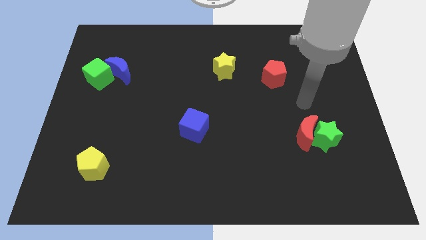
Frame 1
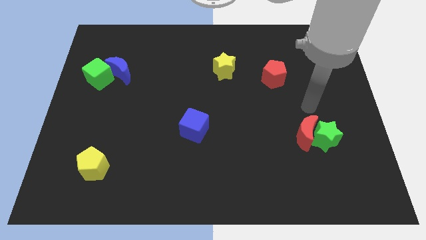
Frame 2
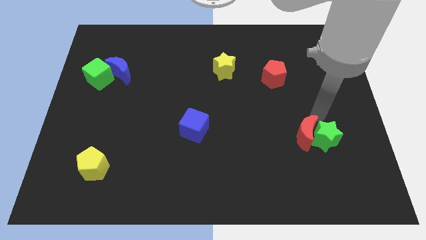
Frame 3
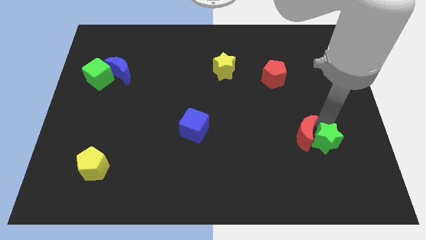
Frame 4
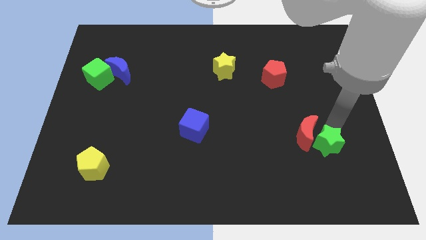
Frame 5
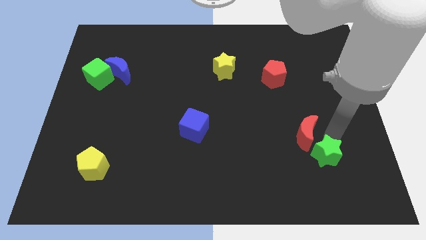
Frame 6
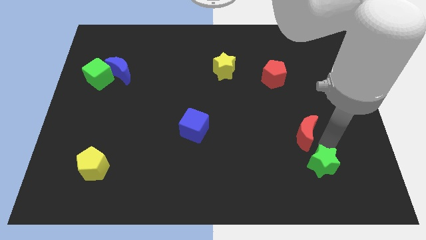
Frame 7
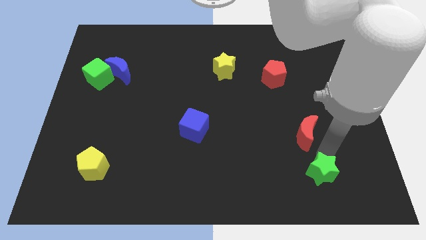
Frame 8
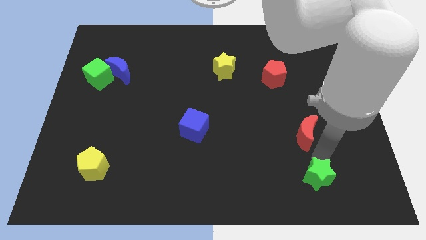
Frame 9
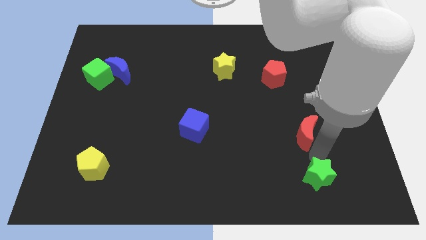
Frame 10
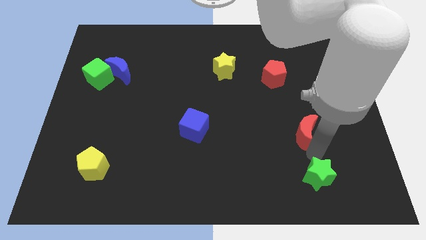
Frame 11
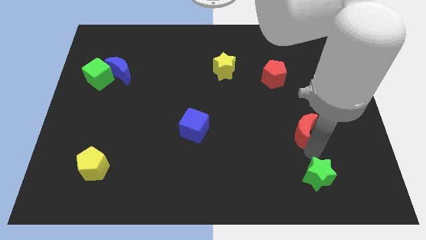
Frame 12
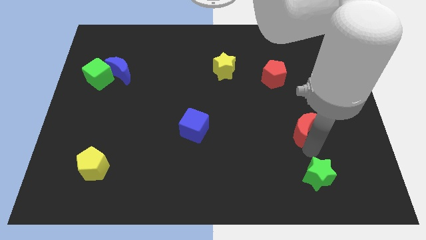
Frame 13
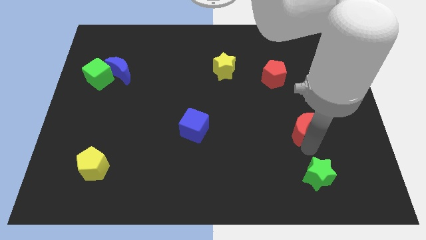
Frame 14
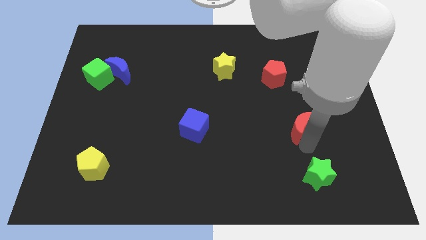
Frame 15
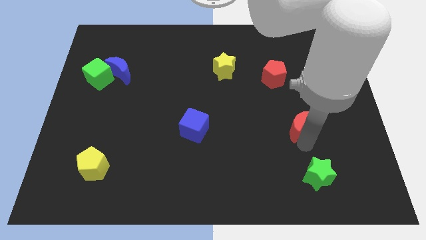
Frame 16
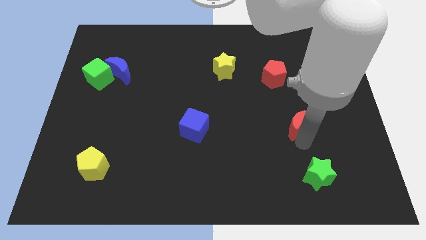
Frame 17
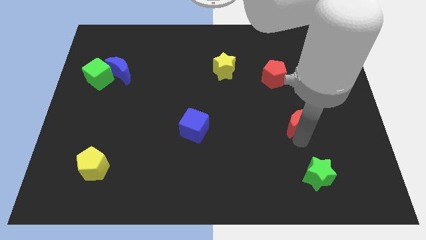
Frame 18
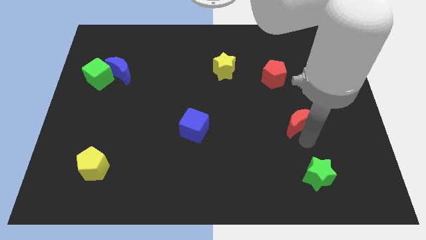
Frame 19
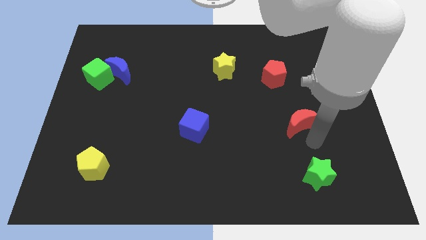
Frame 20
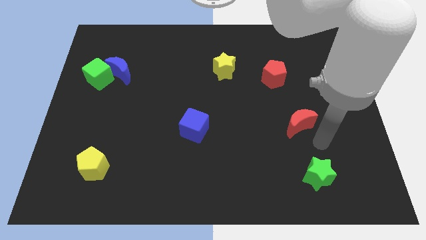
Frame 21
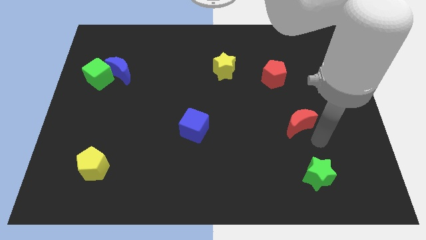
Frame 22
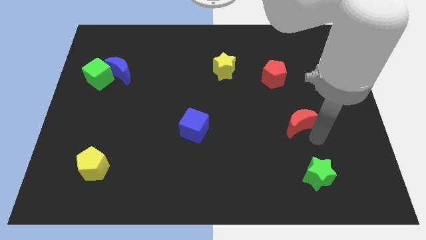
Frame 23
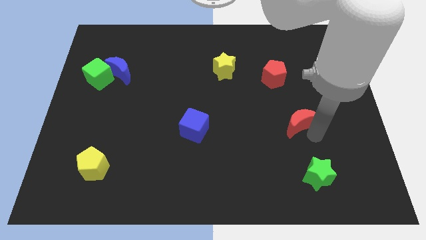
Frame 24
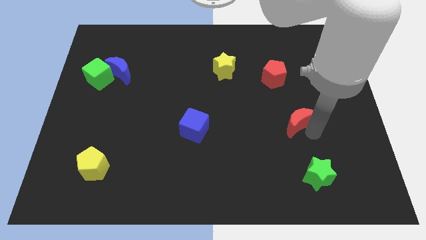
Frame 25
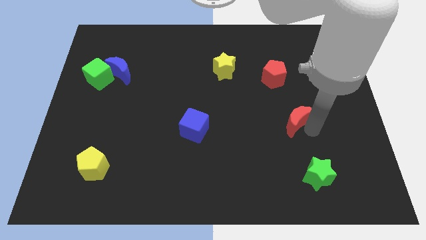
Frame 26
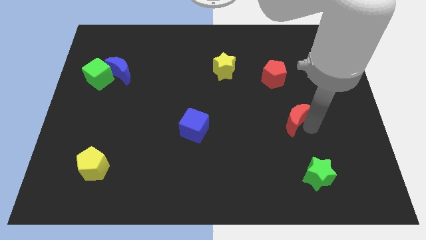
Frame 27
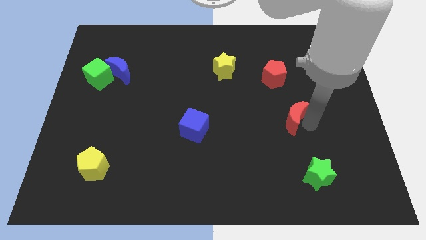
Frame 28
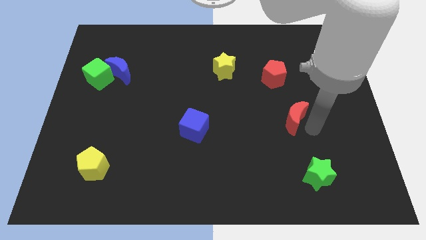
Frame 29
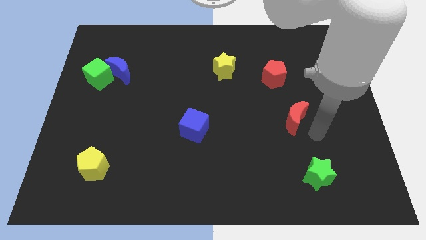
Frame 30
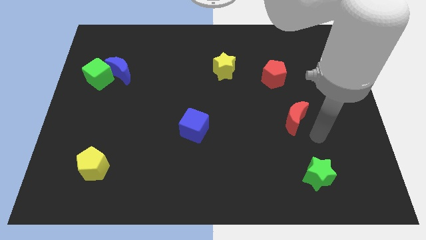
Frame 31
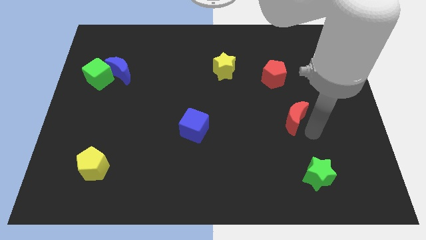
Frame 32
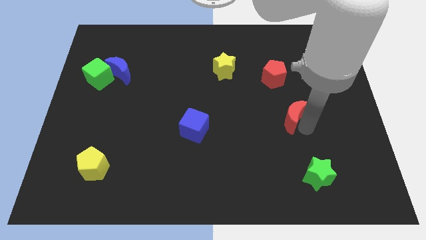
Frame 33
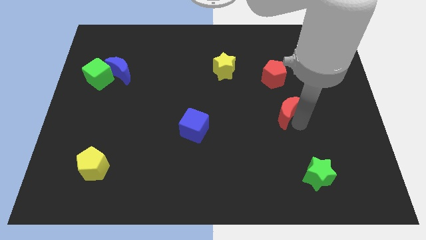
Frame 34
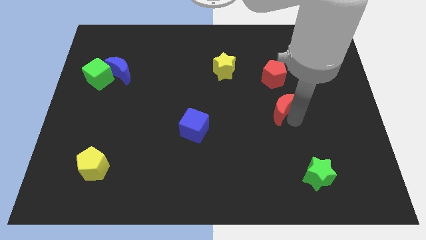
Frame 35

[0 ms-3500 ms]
push the red moon a little diagonally upwards and to the left

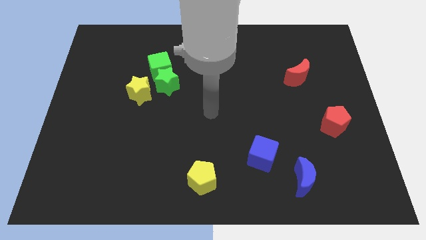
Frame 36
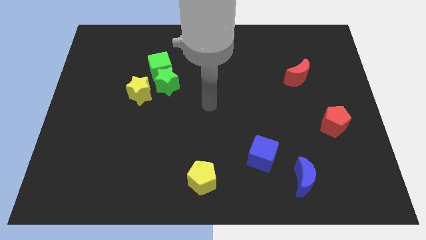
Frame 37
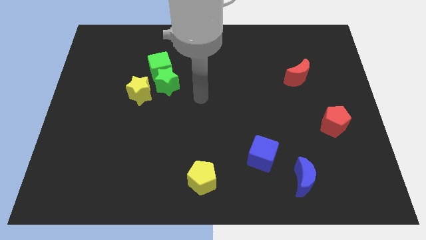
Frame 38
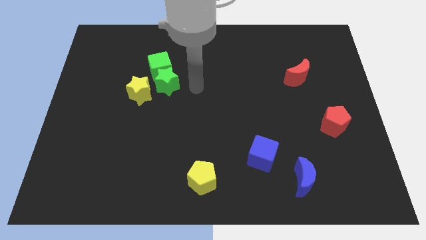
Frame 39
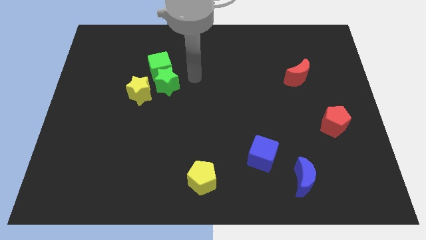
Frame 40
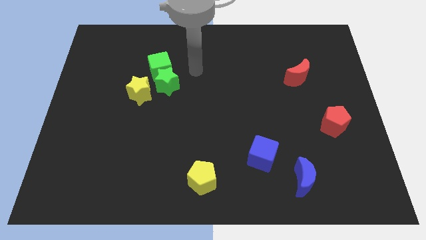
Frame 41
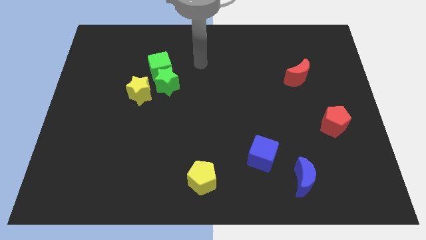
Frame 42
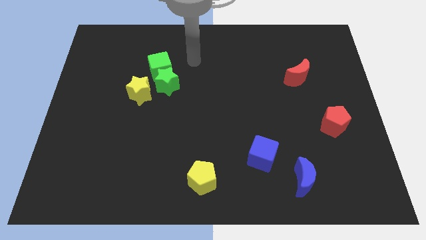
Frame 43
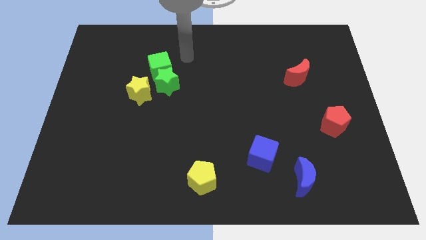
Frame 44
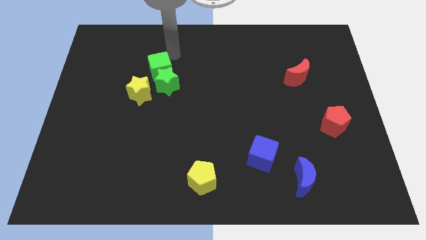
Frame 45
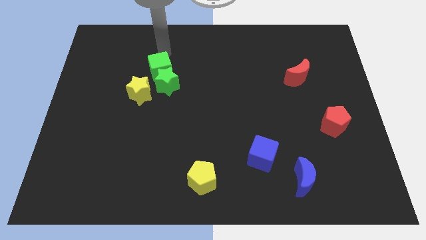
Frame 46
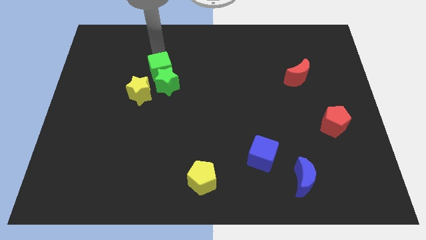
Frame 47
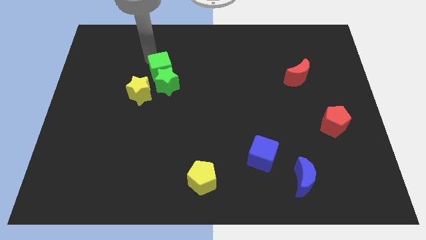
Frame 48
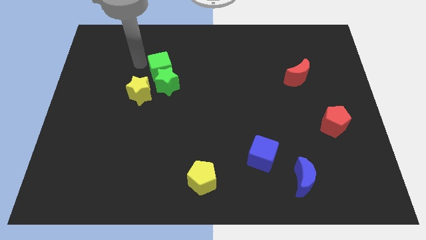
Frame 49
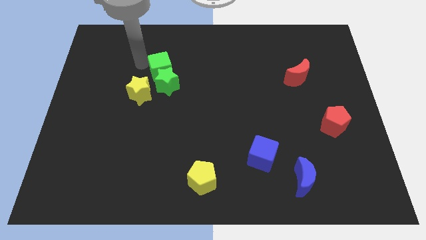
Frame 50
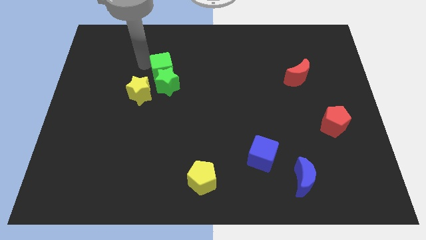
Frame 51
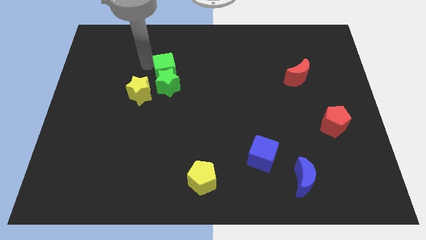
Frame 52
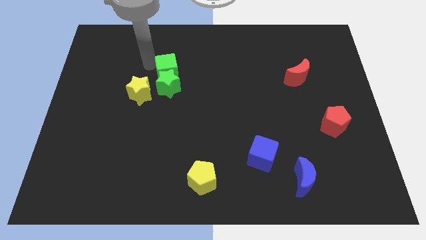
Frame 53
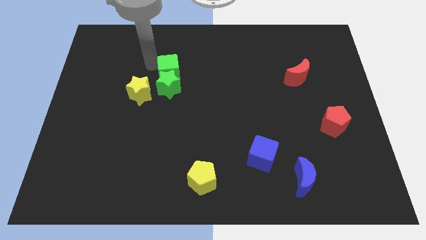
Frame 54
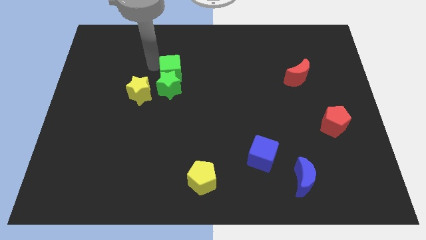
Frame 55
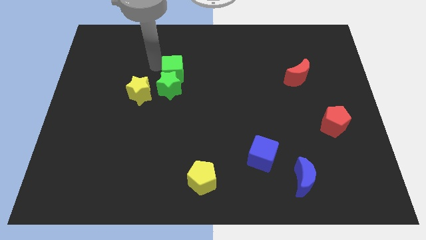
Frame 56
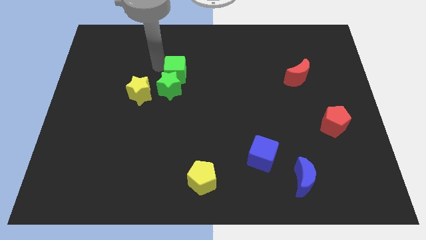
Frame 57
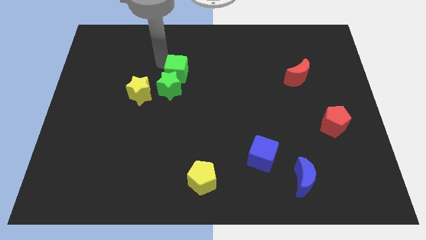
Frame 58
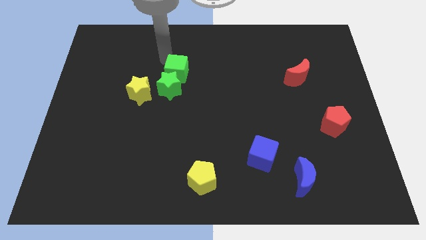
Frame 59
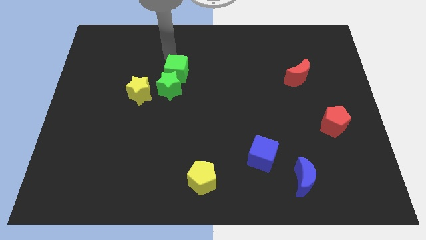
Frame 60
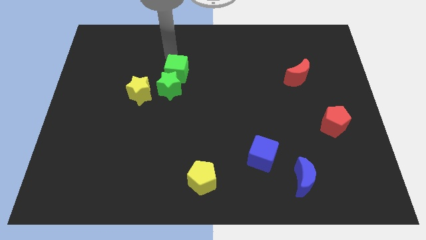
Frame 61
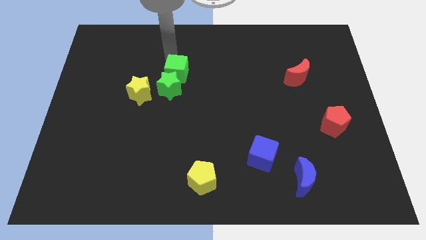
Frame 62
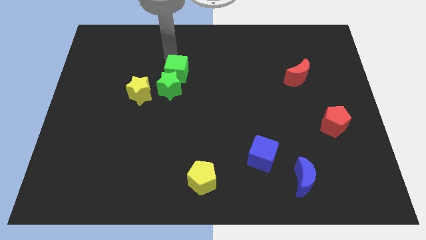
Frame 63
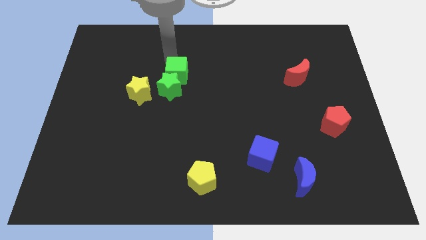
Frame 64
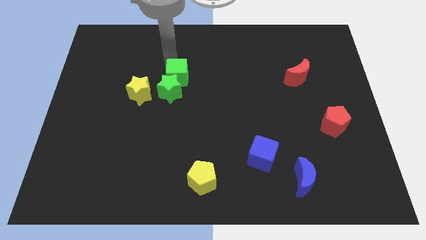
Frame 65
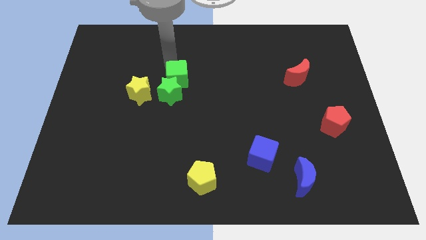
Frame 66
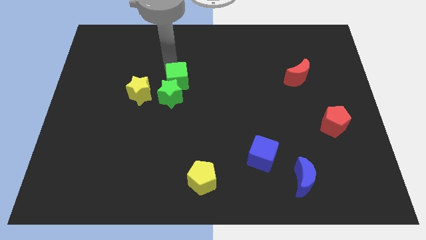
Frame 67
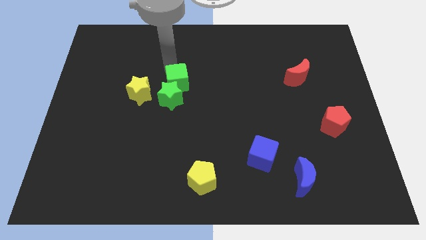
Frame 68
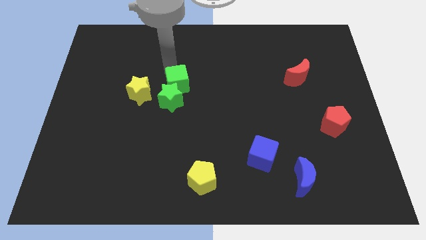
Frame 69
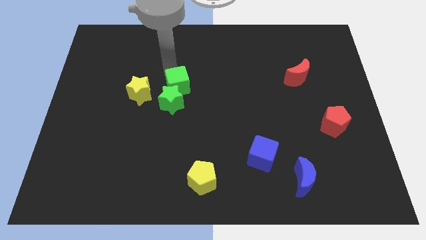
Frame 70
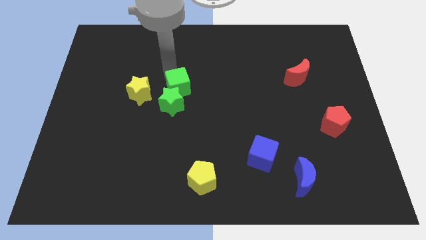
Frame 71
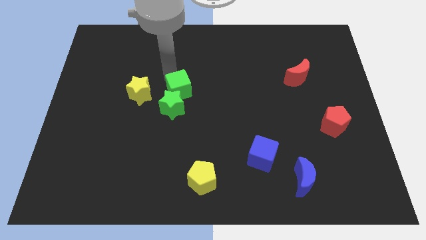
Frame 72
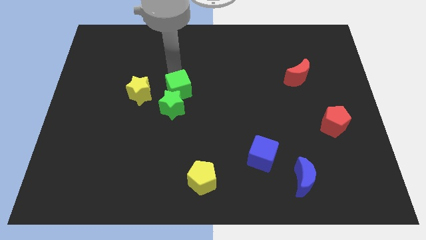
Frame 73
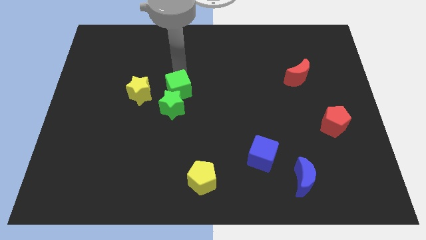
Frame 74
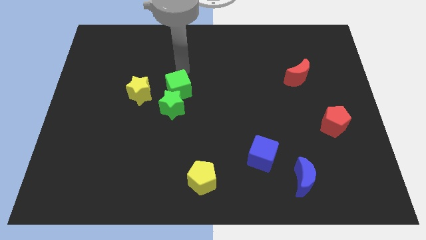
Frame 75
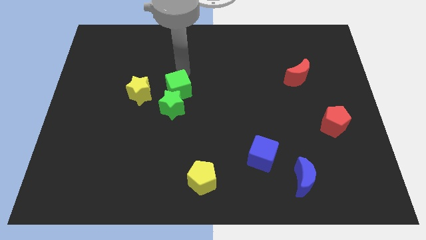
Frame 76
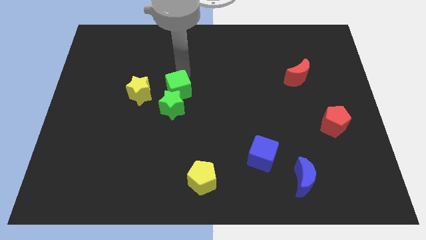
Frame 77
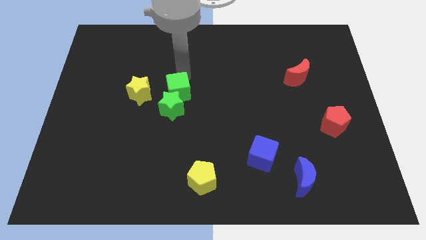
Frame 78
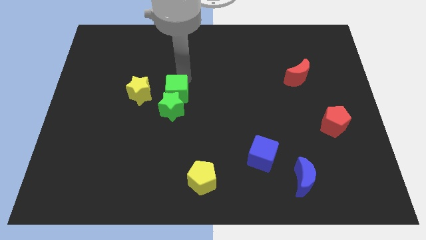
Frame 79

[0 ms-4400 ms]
slightly move the green cube down

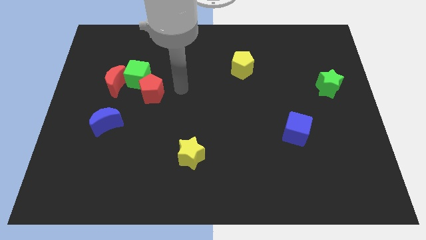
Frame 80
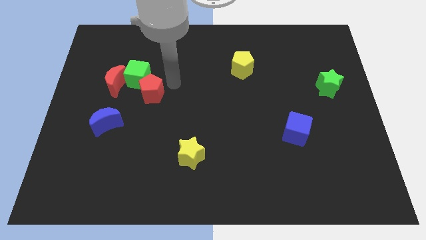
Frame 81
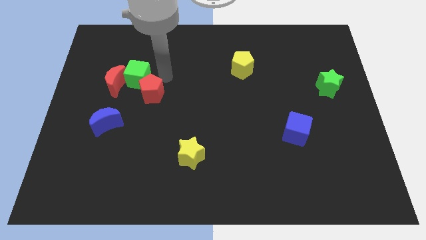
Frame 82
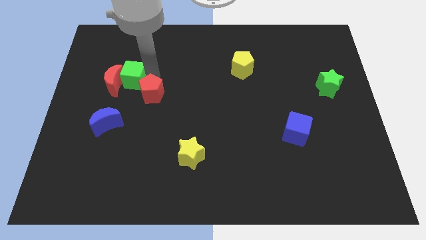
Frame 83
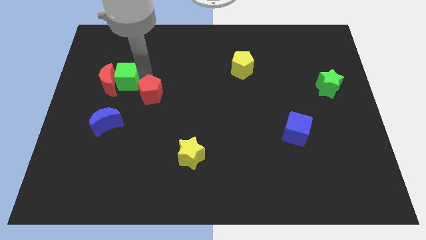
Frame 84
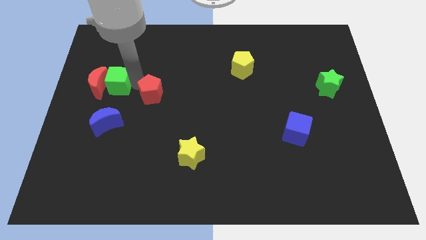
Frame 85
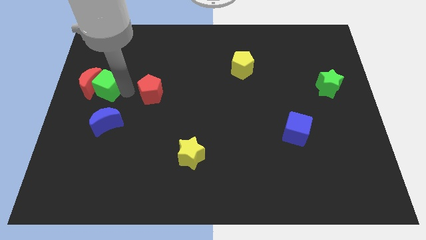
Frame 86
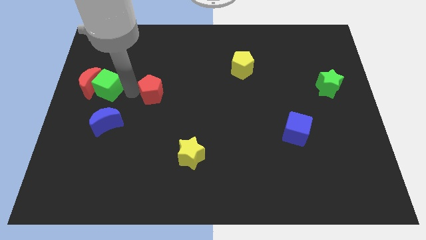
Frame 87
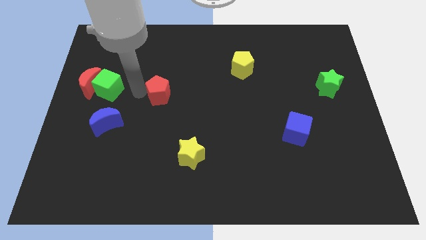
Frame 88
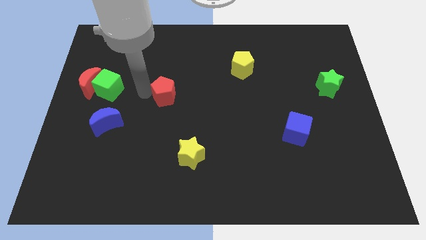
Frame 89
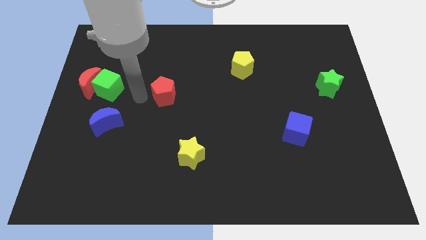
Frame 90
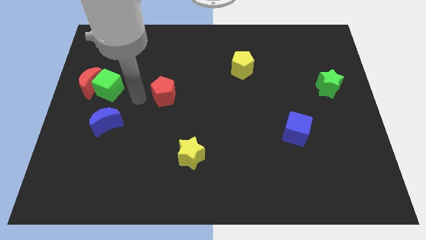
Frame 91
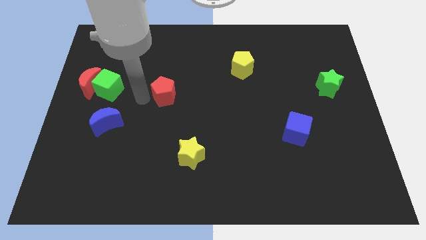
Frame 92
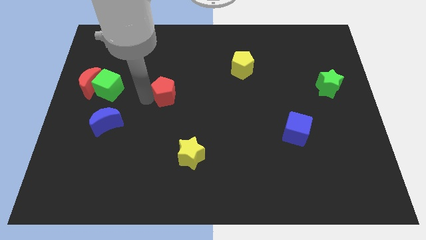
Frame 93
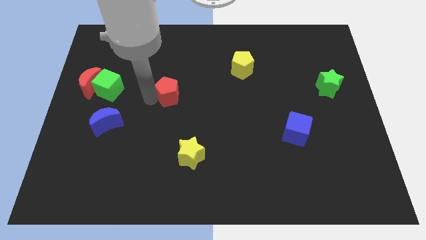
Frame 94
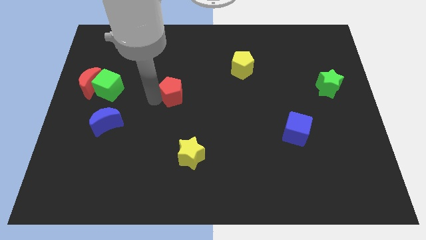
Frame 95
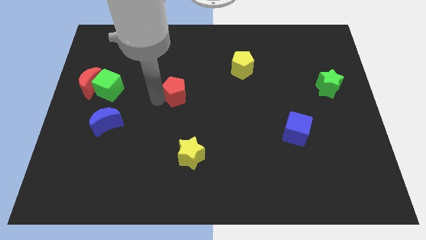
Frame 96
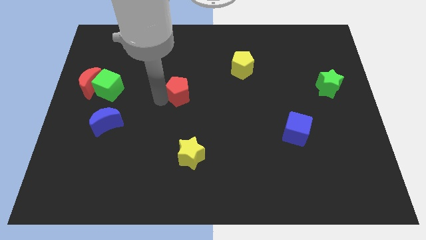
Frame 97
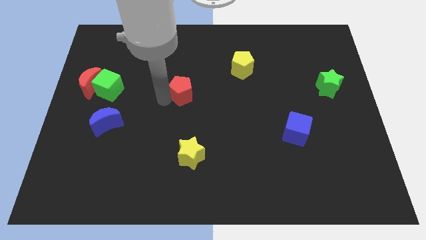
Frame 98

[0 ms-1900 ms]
slide the red pentagon somewhat to the right
